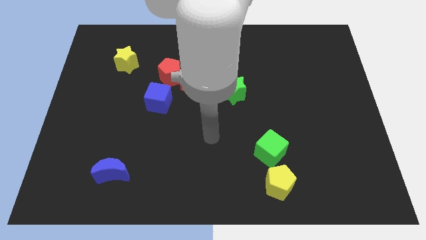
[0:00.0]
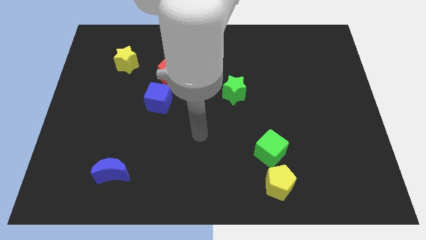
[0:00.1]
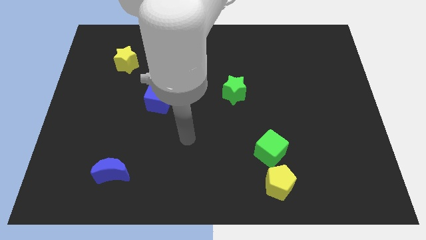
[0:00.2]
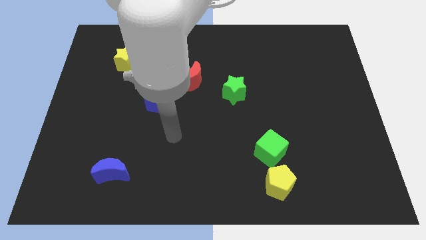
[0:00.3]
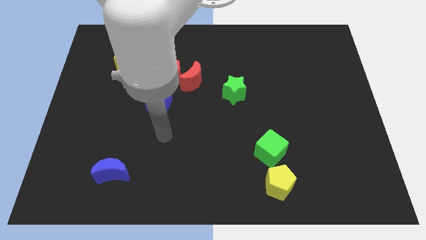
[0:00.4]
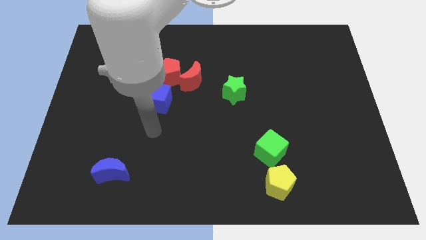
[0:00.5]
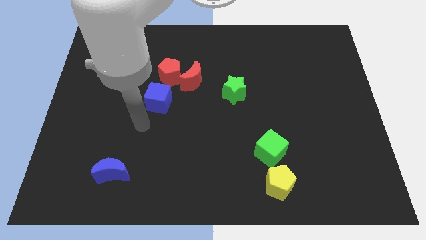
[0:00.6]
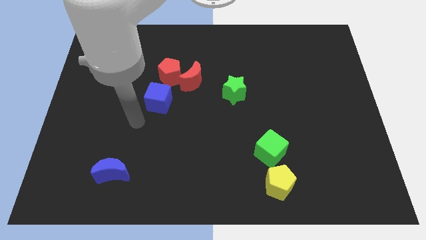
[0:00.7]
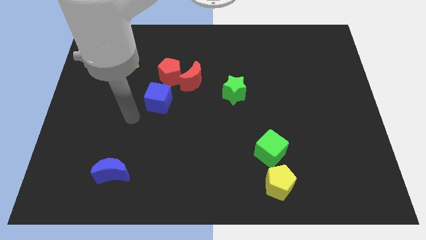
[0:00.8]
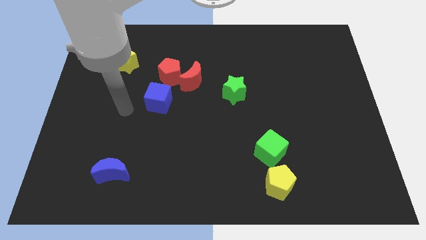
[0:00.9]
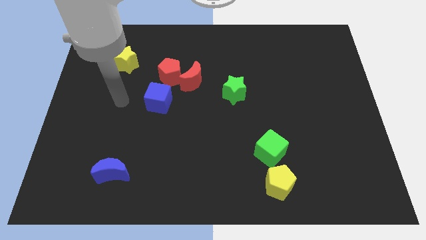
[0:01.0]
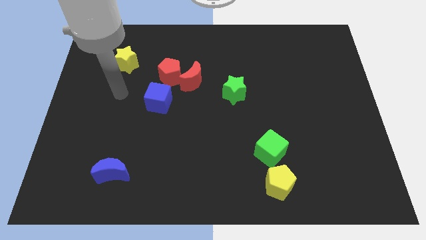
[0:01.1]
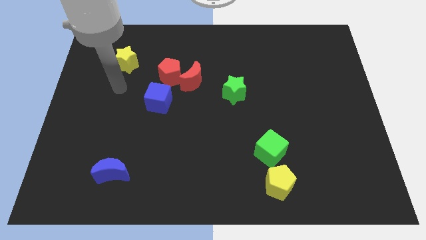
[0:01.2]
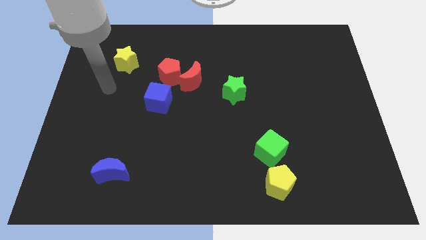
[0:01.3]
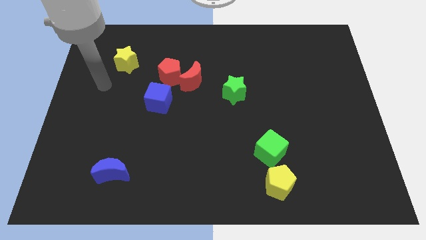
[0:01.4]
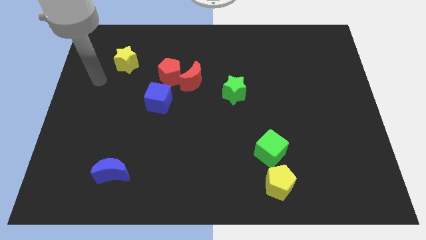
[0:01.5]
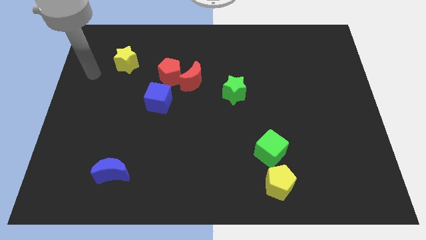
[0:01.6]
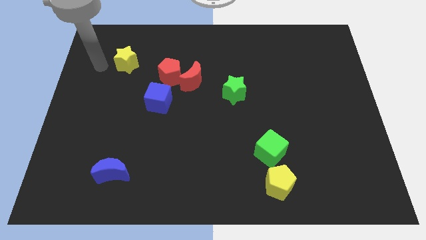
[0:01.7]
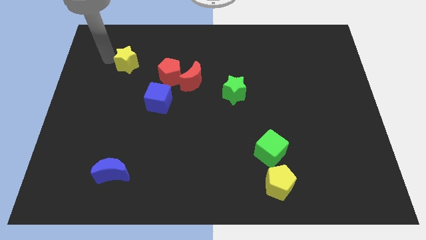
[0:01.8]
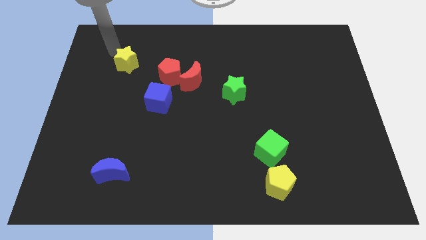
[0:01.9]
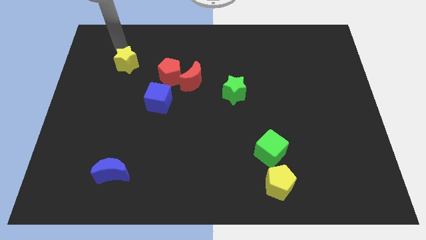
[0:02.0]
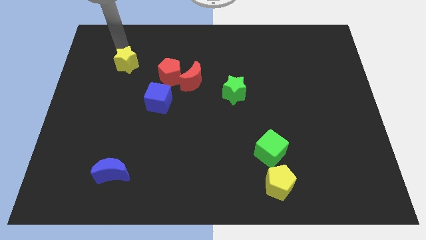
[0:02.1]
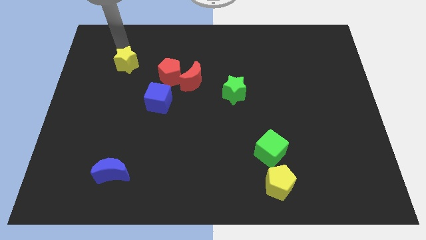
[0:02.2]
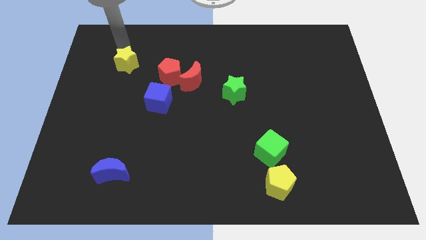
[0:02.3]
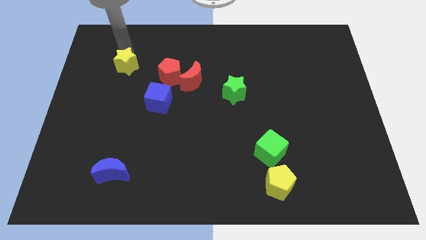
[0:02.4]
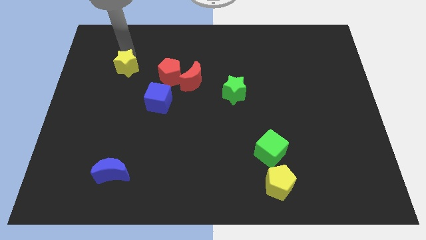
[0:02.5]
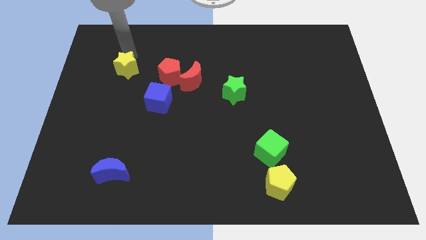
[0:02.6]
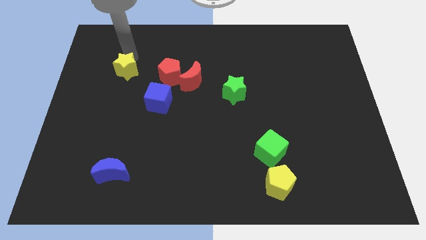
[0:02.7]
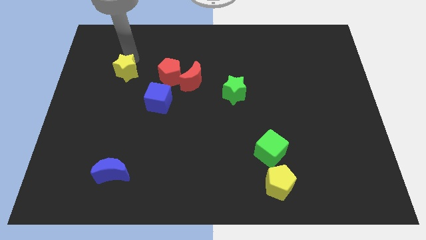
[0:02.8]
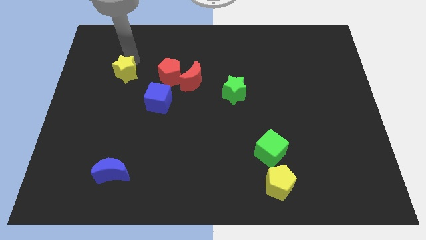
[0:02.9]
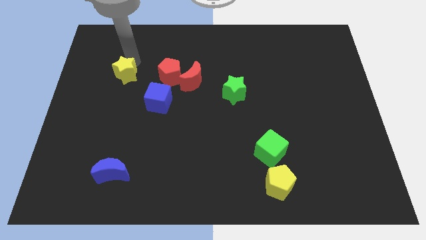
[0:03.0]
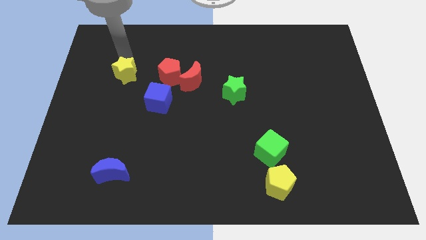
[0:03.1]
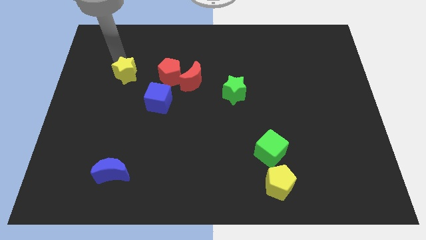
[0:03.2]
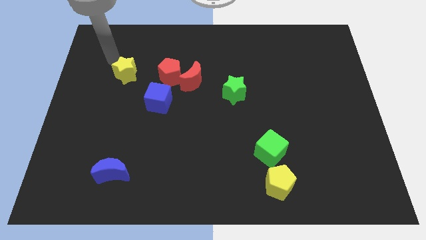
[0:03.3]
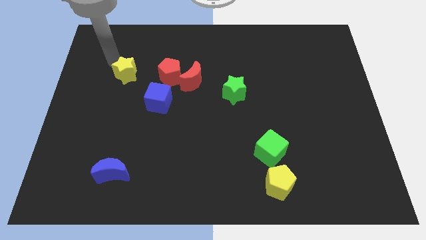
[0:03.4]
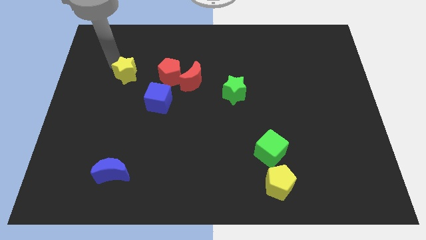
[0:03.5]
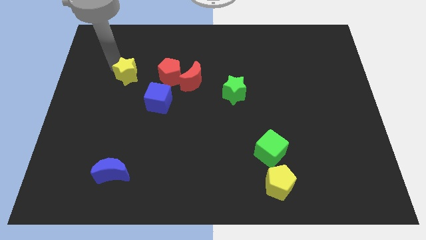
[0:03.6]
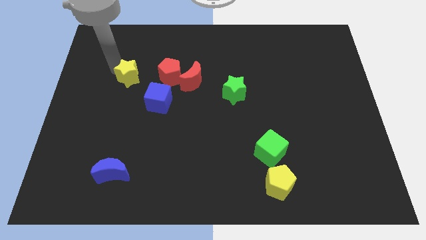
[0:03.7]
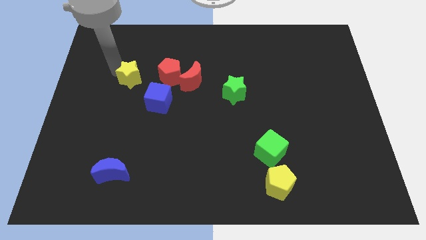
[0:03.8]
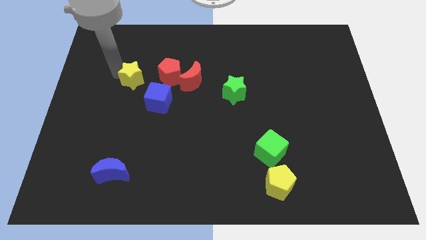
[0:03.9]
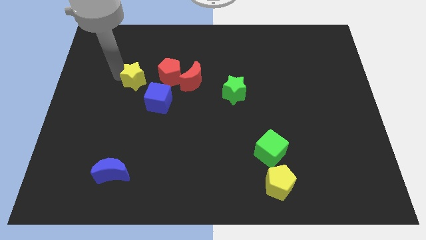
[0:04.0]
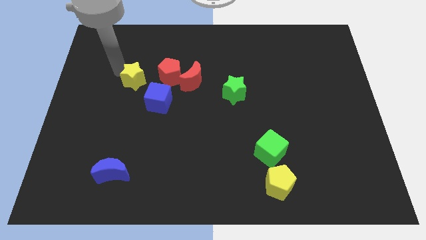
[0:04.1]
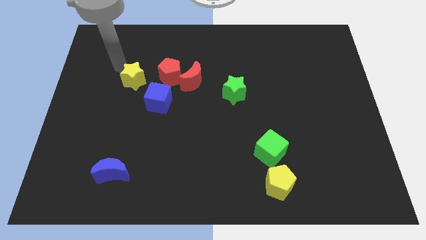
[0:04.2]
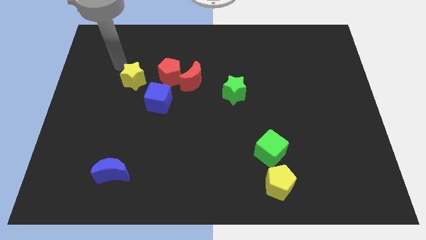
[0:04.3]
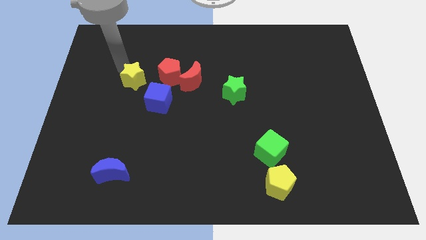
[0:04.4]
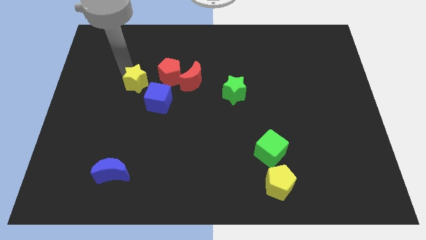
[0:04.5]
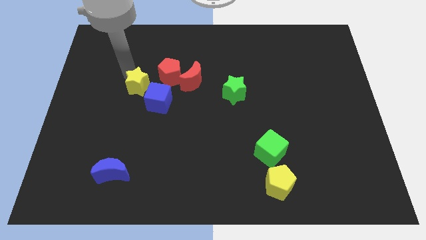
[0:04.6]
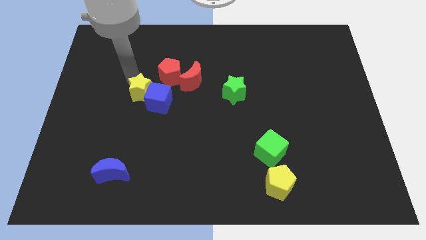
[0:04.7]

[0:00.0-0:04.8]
push the yellow star close to the blue cube

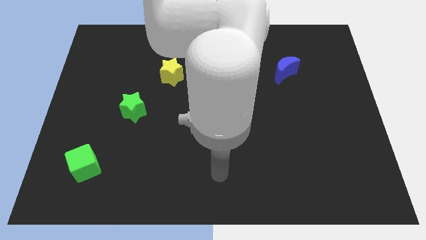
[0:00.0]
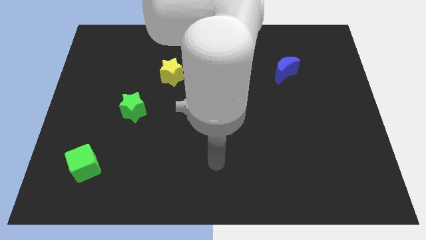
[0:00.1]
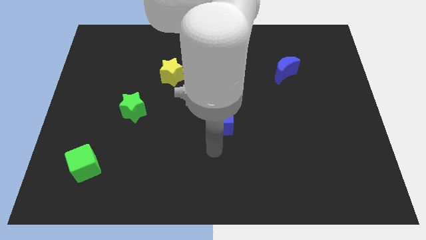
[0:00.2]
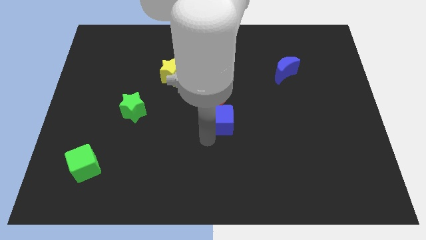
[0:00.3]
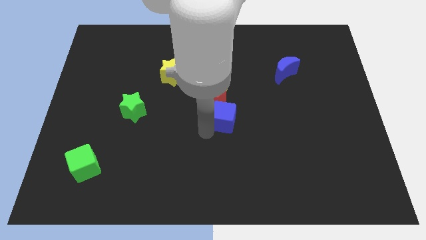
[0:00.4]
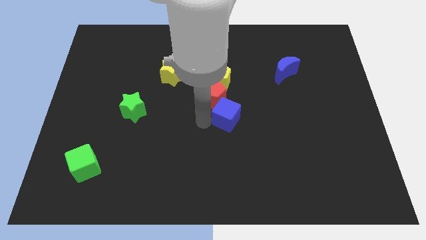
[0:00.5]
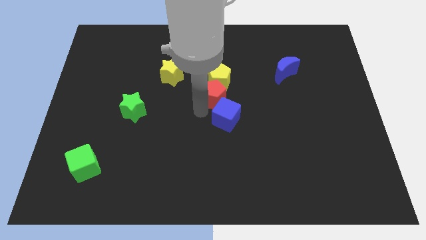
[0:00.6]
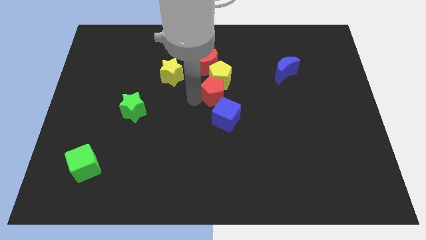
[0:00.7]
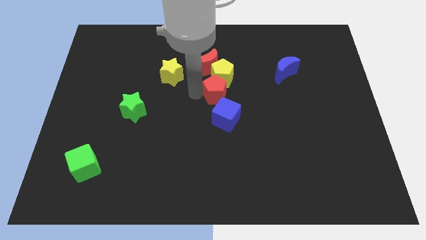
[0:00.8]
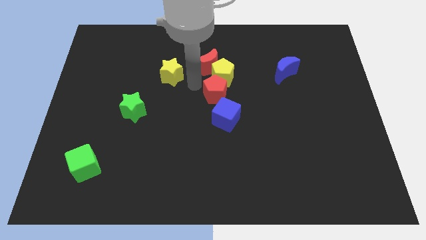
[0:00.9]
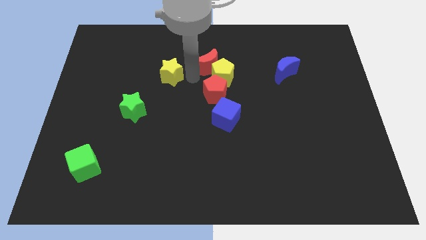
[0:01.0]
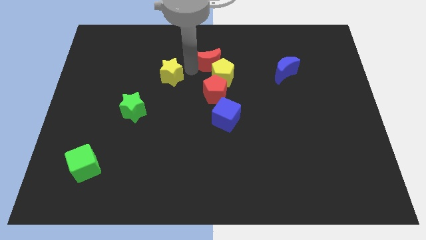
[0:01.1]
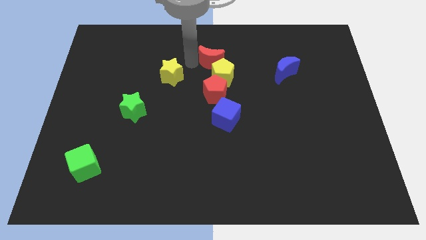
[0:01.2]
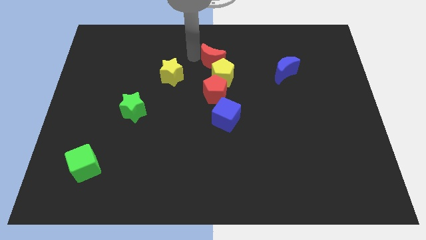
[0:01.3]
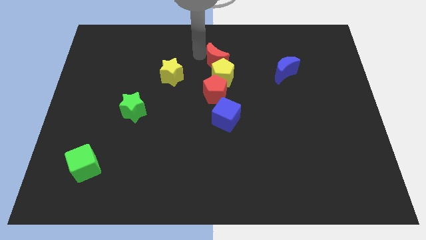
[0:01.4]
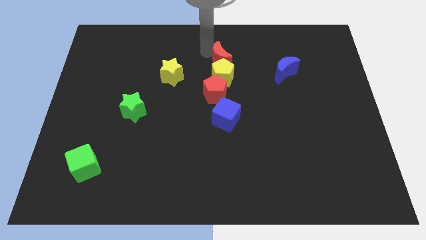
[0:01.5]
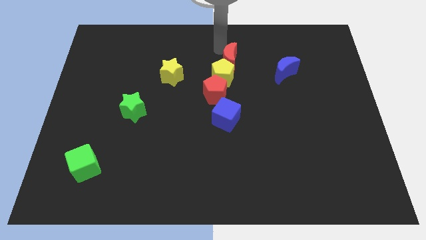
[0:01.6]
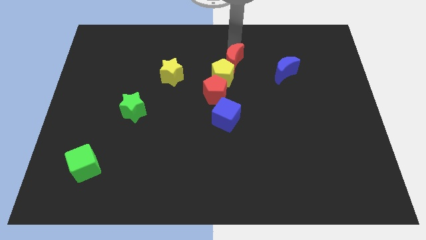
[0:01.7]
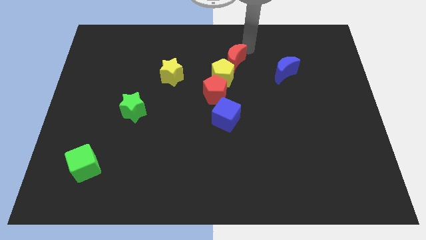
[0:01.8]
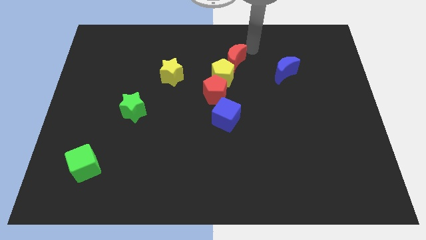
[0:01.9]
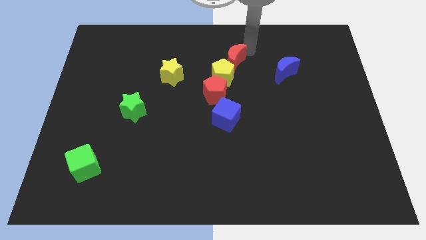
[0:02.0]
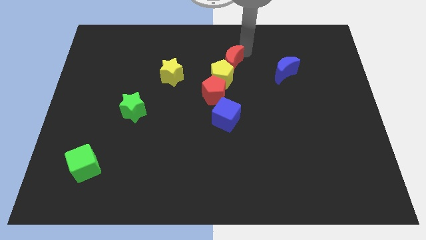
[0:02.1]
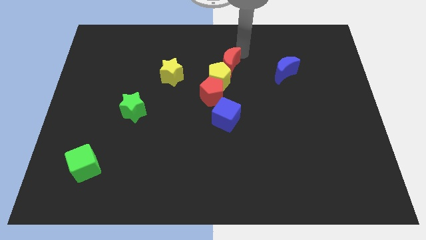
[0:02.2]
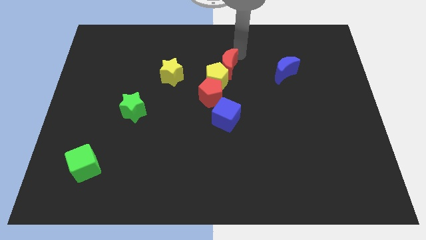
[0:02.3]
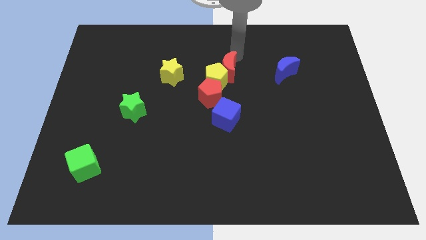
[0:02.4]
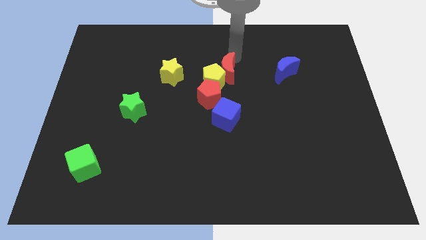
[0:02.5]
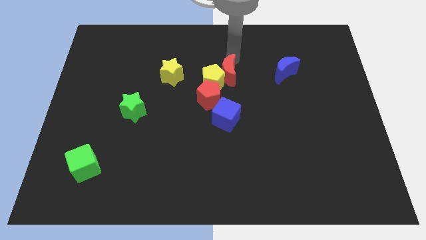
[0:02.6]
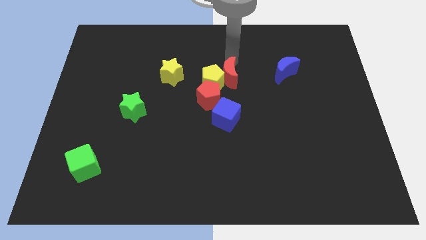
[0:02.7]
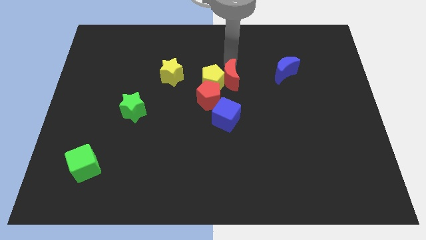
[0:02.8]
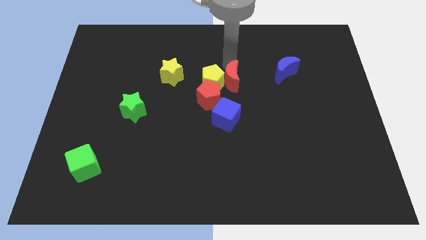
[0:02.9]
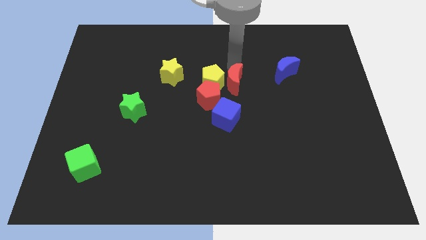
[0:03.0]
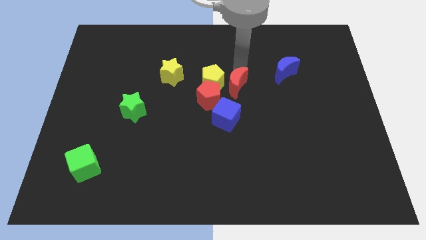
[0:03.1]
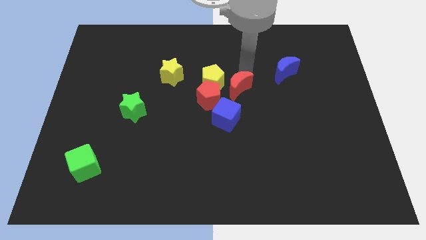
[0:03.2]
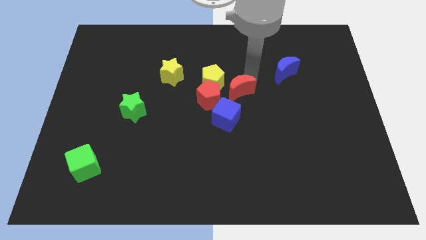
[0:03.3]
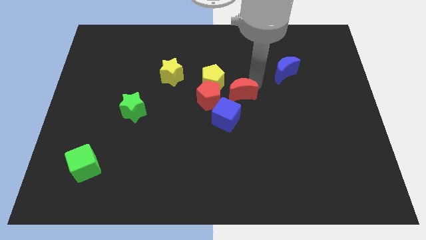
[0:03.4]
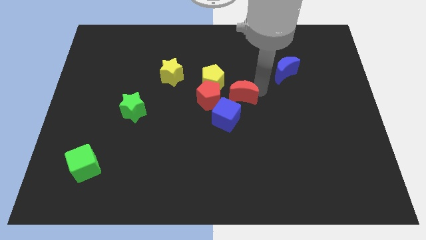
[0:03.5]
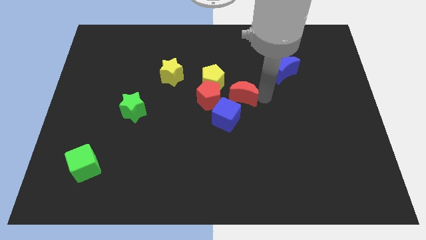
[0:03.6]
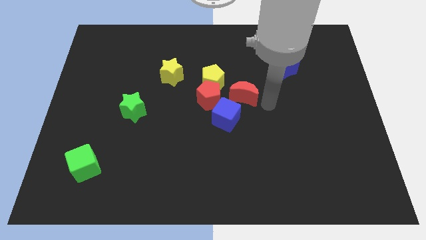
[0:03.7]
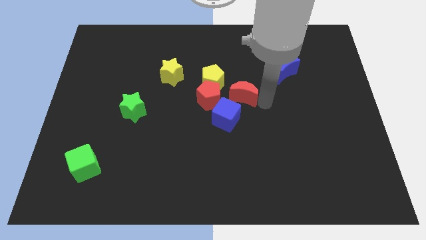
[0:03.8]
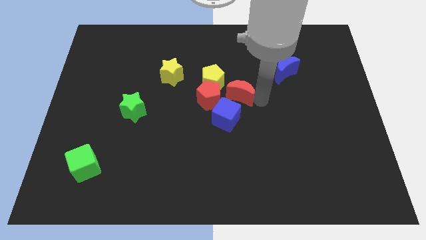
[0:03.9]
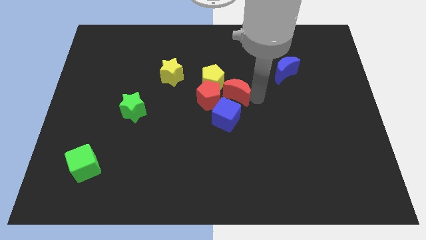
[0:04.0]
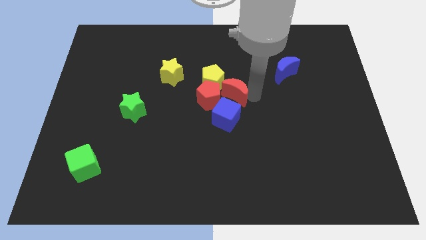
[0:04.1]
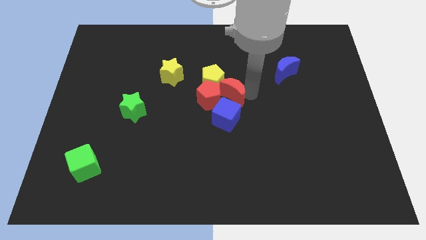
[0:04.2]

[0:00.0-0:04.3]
move the red moon next to the red pentagon
